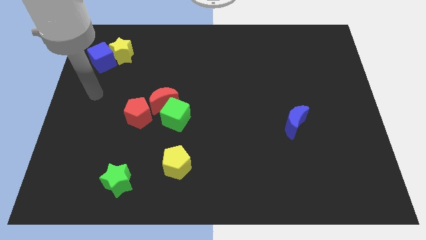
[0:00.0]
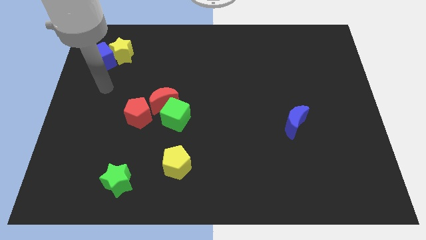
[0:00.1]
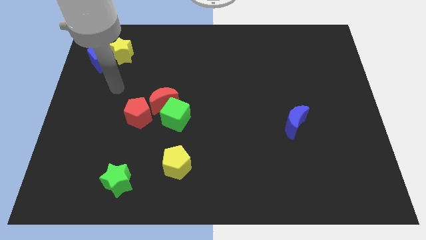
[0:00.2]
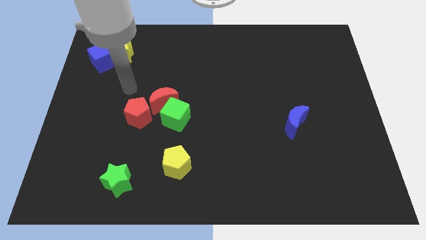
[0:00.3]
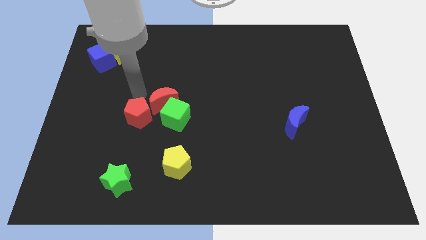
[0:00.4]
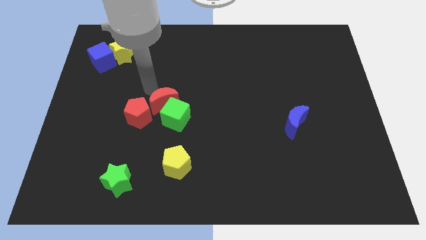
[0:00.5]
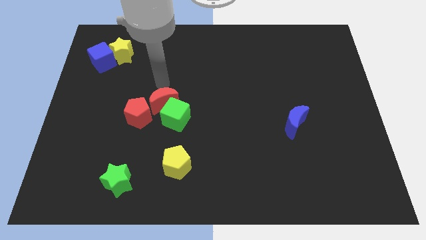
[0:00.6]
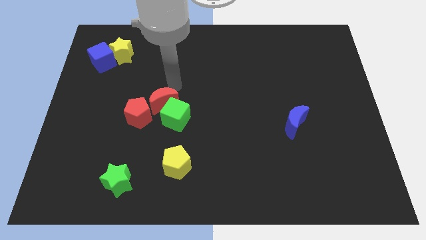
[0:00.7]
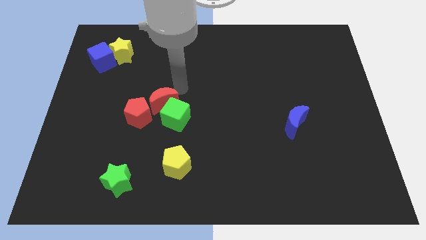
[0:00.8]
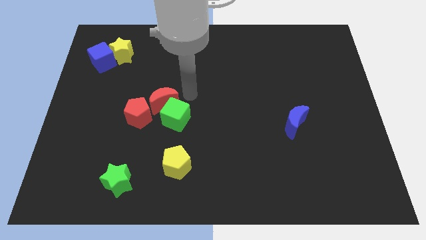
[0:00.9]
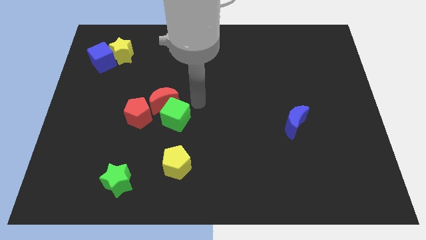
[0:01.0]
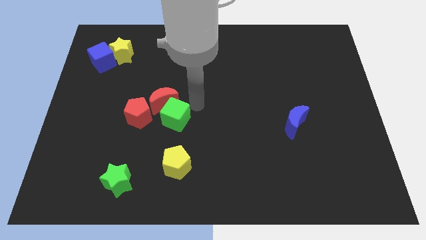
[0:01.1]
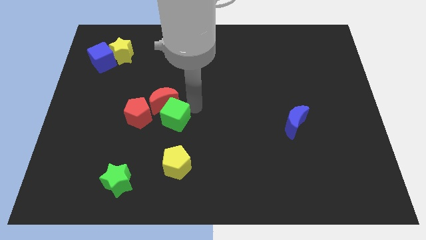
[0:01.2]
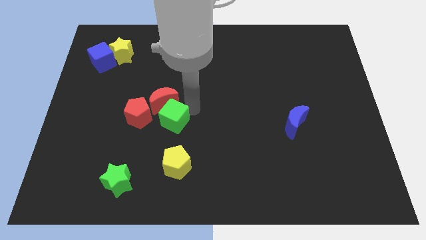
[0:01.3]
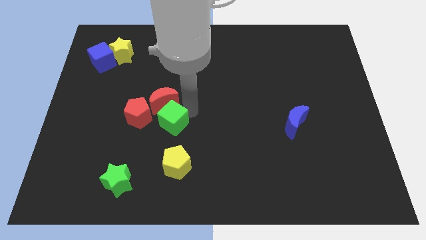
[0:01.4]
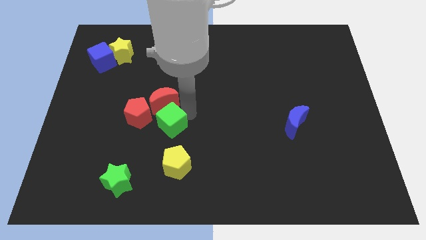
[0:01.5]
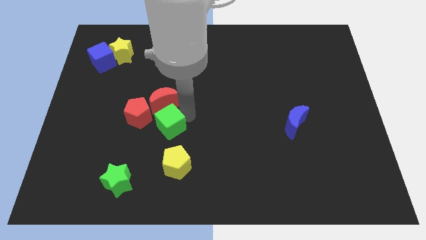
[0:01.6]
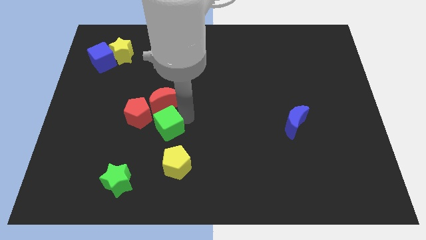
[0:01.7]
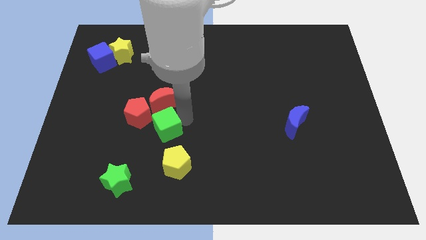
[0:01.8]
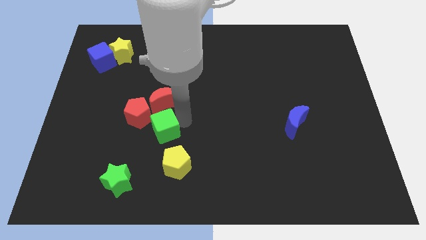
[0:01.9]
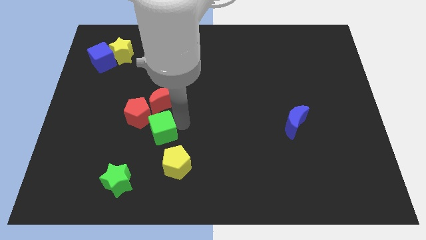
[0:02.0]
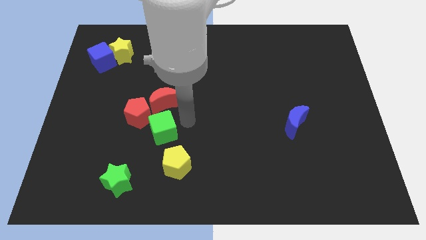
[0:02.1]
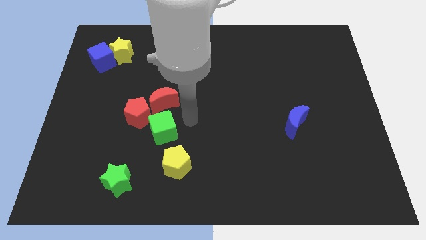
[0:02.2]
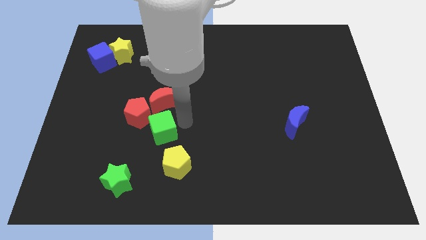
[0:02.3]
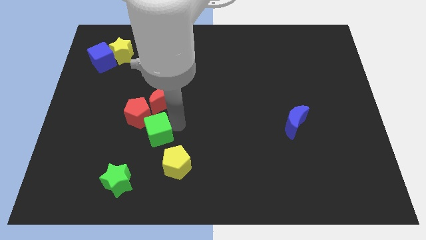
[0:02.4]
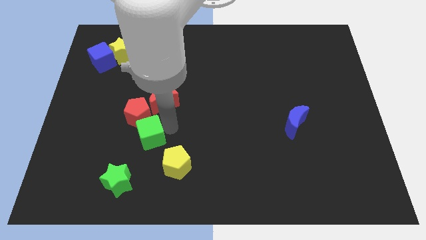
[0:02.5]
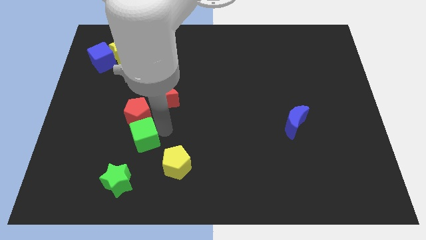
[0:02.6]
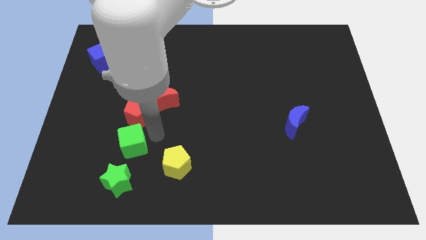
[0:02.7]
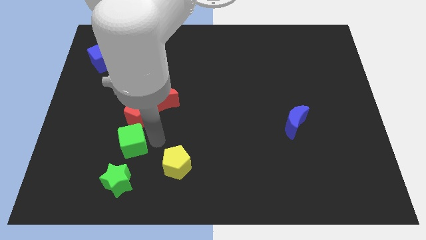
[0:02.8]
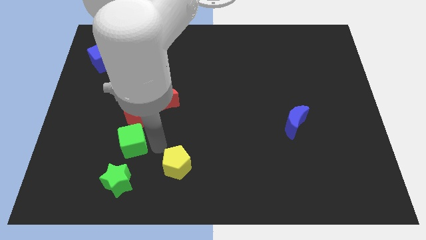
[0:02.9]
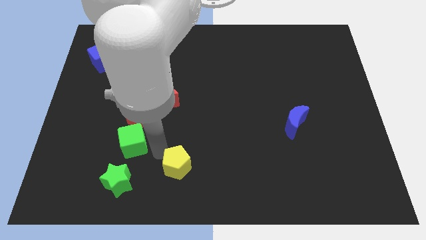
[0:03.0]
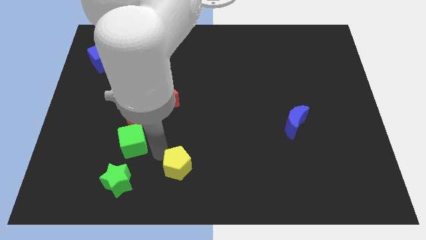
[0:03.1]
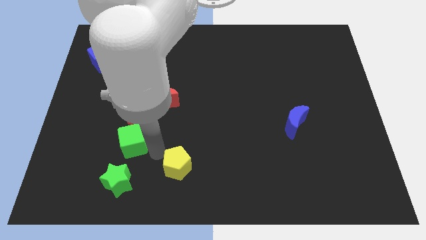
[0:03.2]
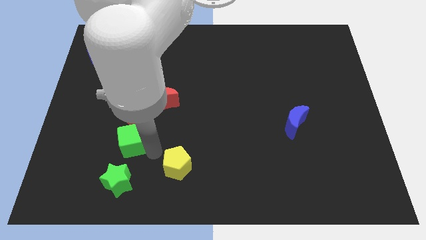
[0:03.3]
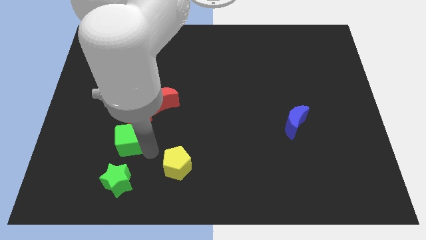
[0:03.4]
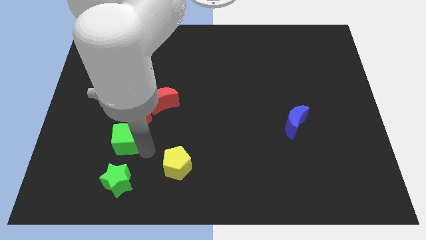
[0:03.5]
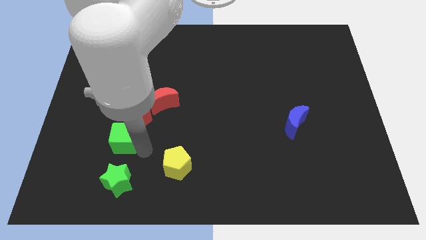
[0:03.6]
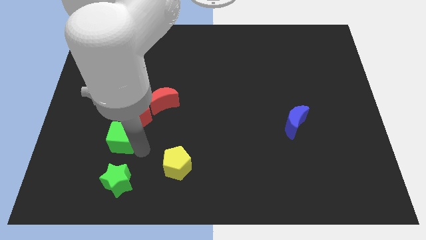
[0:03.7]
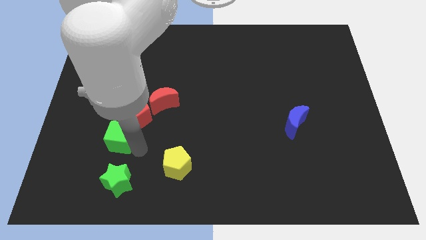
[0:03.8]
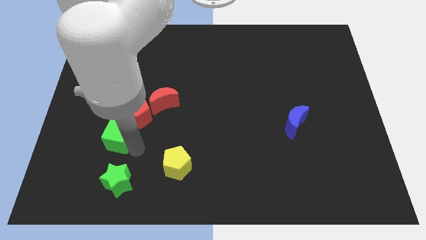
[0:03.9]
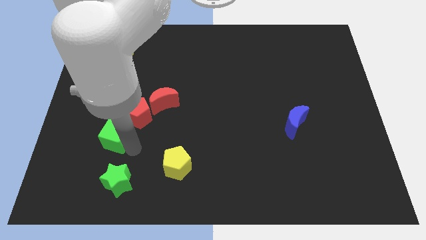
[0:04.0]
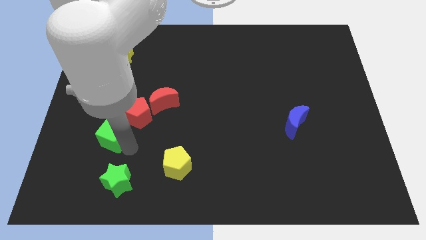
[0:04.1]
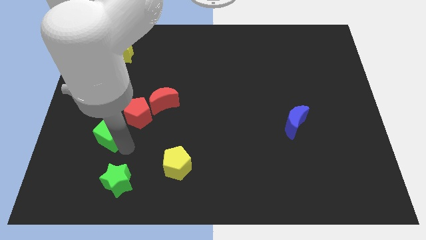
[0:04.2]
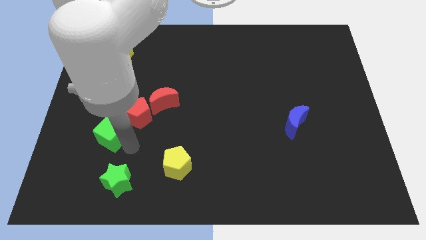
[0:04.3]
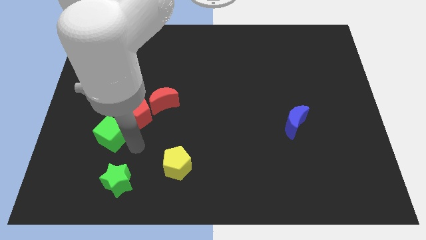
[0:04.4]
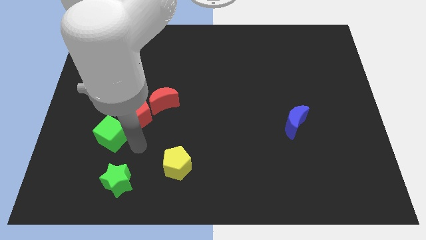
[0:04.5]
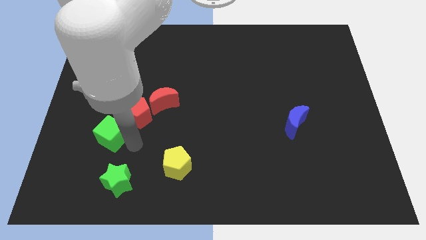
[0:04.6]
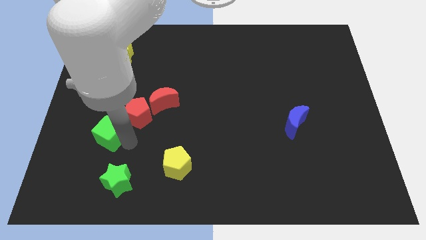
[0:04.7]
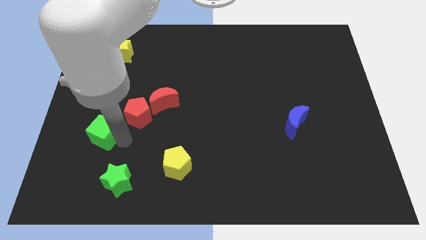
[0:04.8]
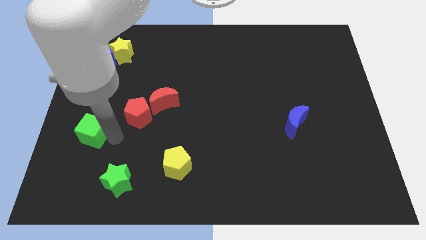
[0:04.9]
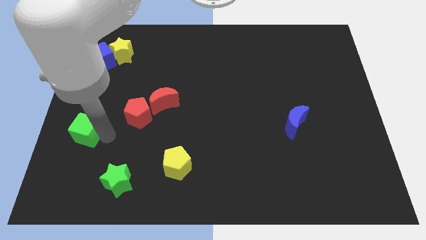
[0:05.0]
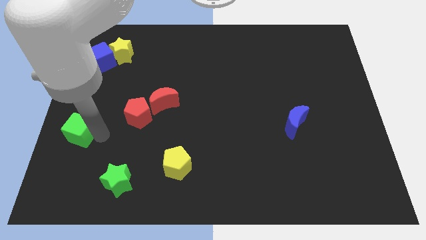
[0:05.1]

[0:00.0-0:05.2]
move the green cube to the left side

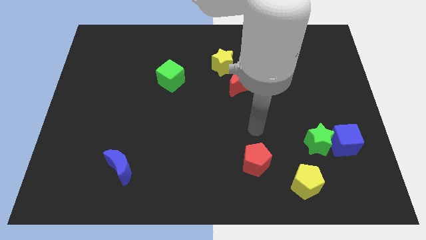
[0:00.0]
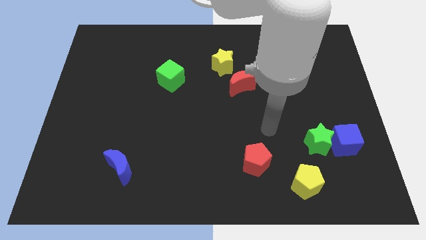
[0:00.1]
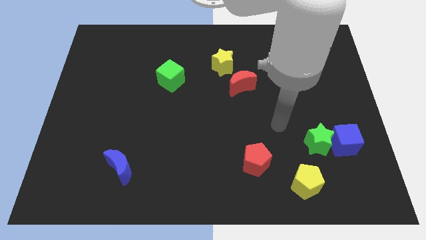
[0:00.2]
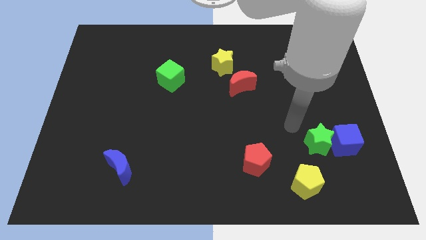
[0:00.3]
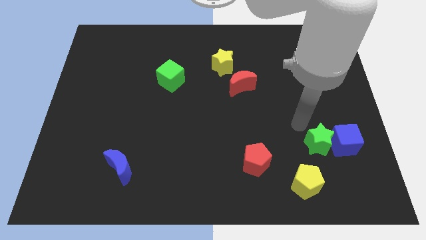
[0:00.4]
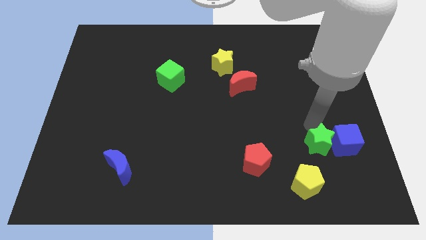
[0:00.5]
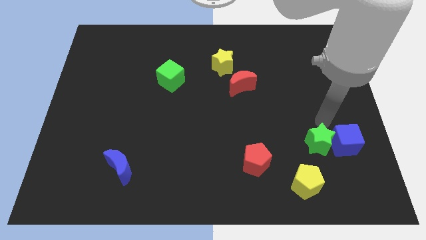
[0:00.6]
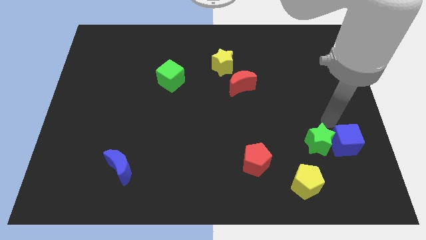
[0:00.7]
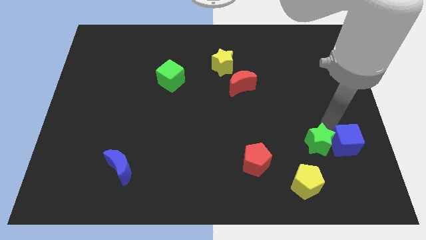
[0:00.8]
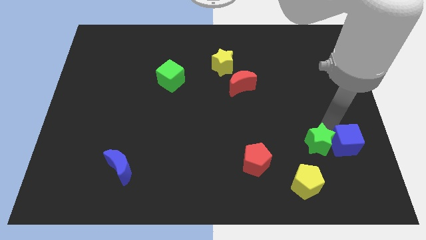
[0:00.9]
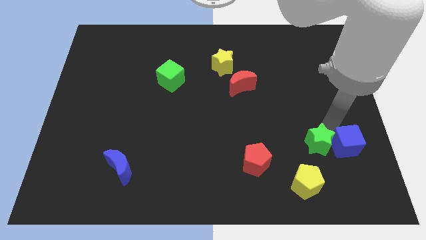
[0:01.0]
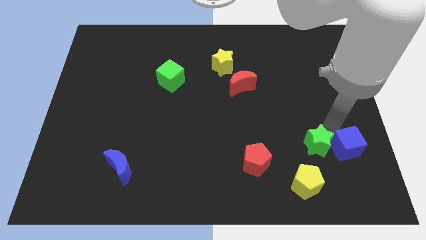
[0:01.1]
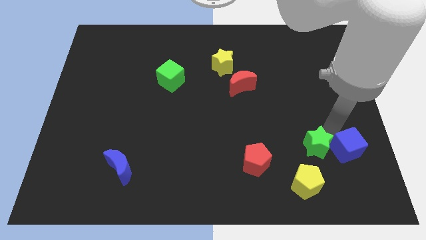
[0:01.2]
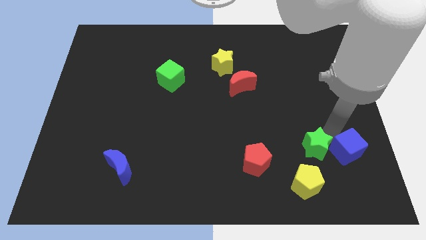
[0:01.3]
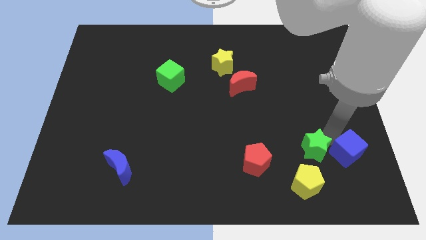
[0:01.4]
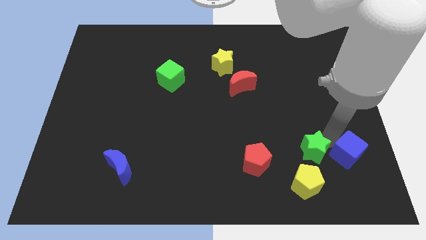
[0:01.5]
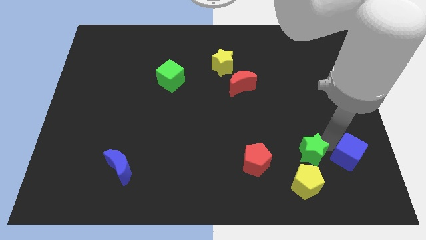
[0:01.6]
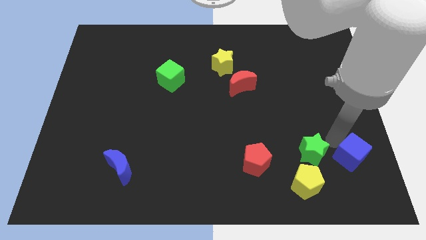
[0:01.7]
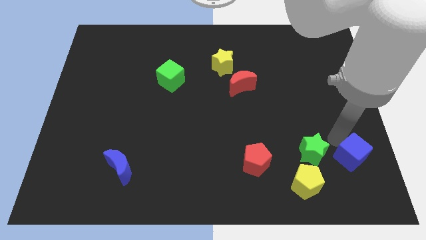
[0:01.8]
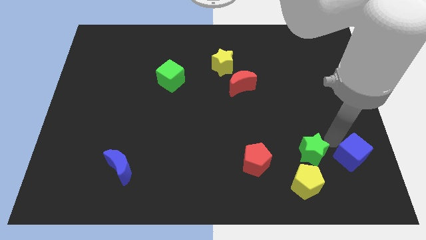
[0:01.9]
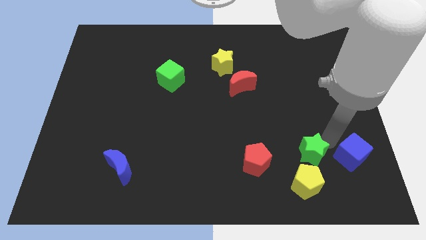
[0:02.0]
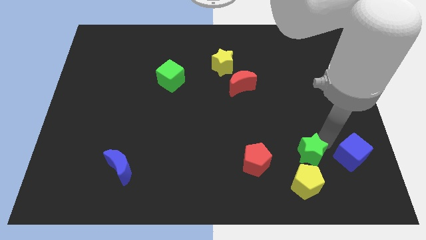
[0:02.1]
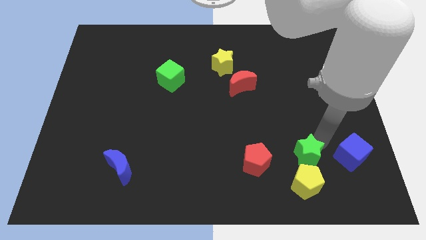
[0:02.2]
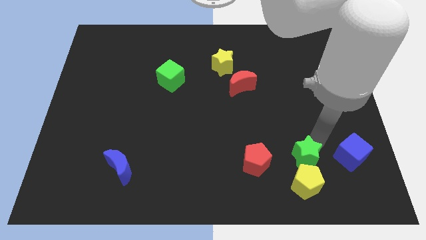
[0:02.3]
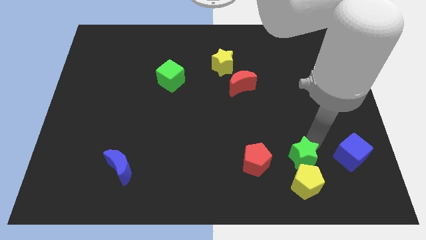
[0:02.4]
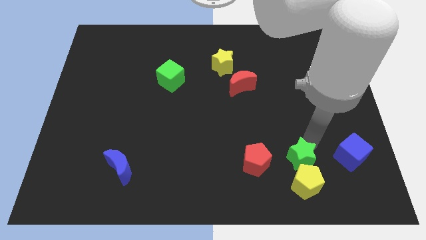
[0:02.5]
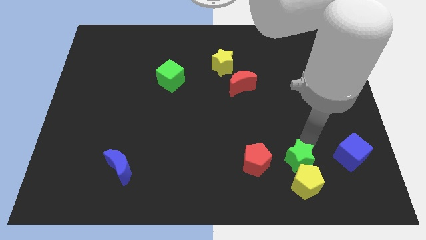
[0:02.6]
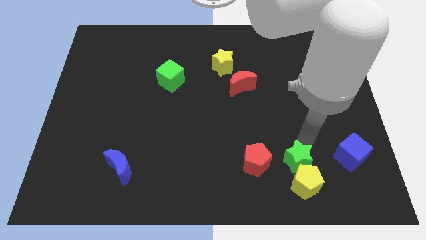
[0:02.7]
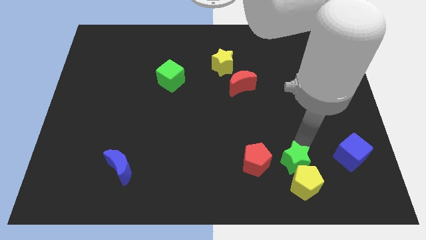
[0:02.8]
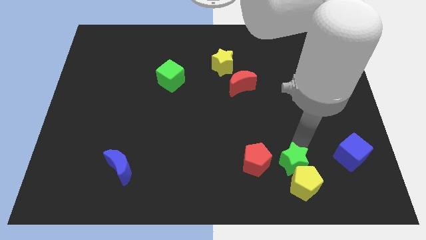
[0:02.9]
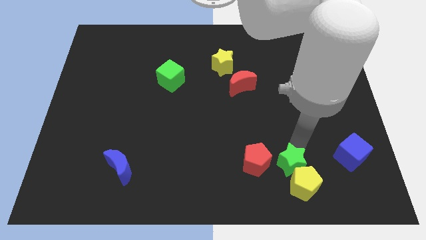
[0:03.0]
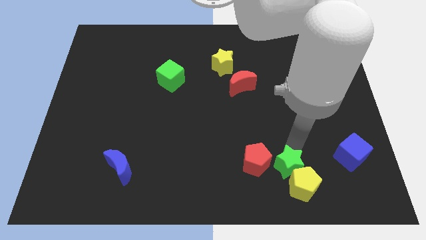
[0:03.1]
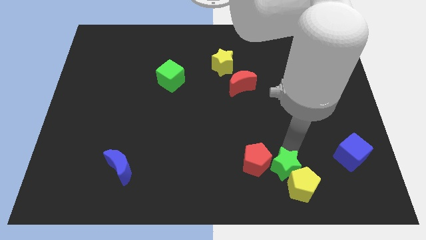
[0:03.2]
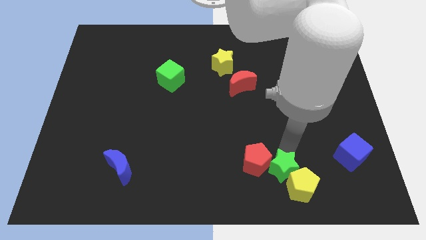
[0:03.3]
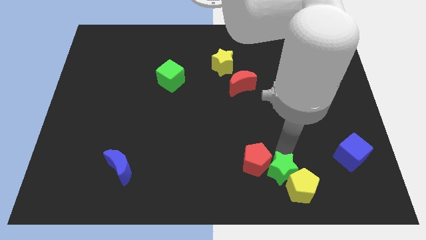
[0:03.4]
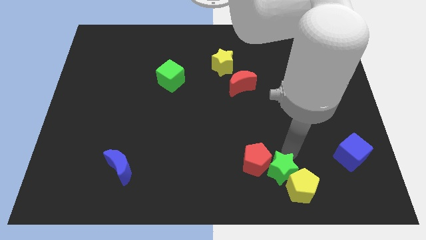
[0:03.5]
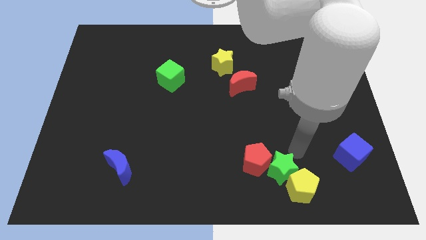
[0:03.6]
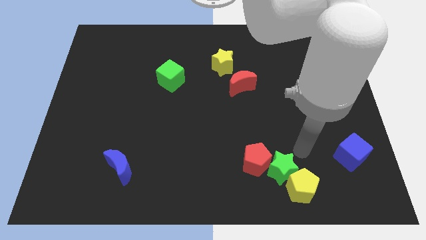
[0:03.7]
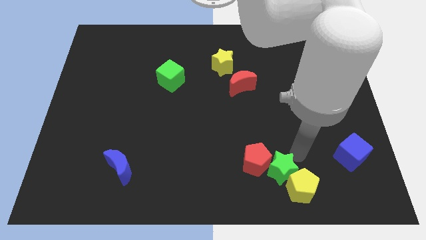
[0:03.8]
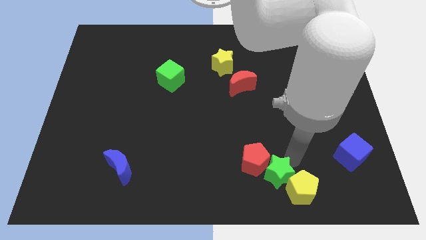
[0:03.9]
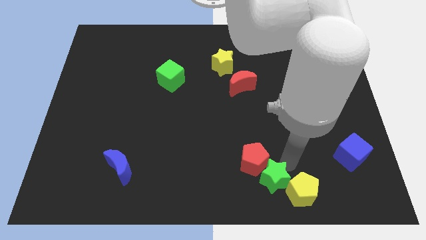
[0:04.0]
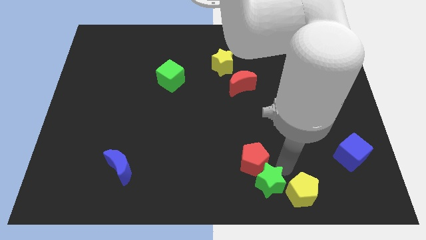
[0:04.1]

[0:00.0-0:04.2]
push the green star to the bottom
